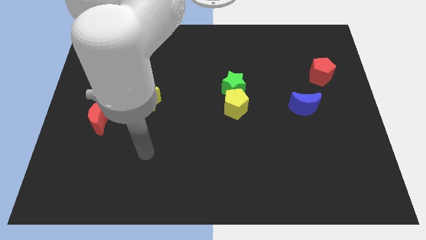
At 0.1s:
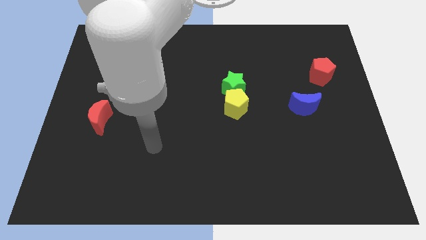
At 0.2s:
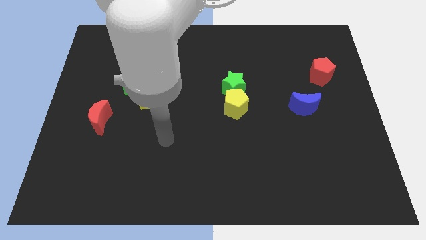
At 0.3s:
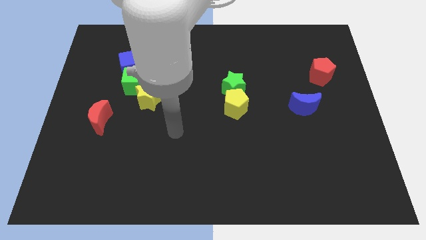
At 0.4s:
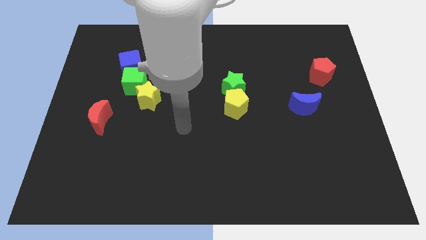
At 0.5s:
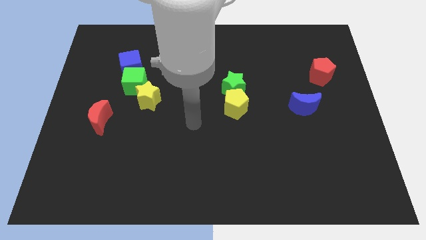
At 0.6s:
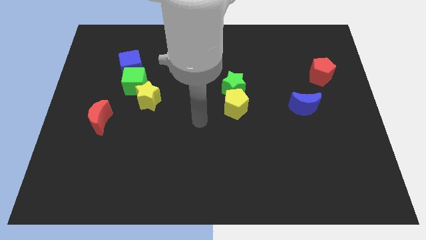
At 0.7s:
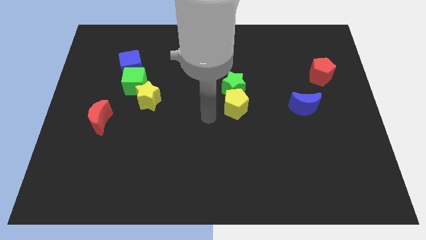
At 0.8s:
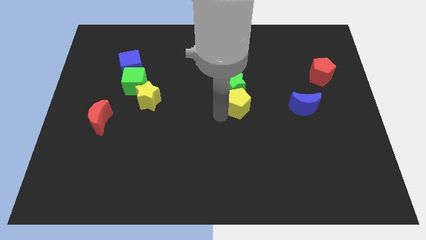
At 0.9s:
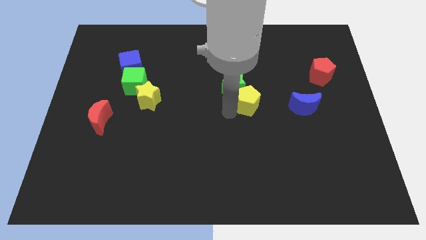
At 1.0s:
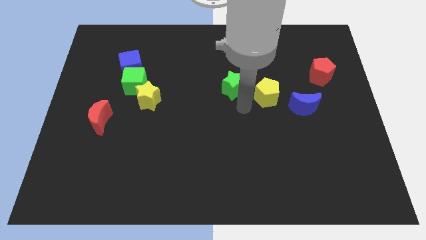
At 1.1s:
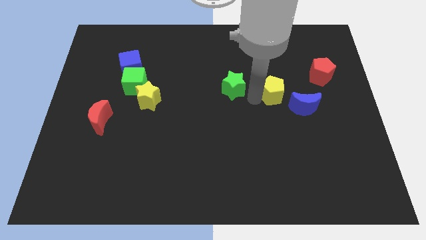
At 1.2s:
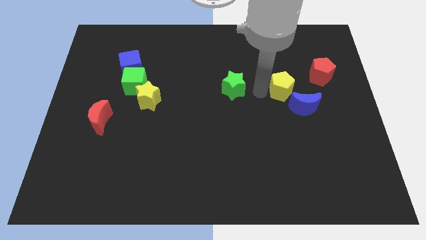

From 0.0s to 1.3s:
move the green star away from the yellow pentagon

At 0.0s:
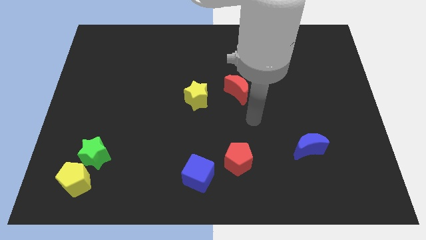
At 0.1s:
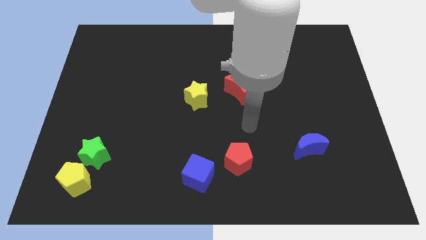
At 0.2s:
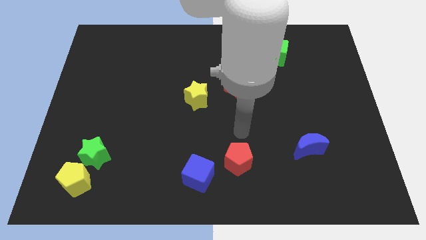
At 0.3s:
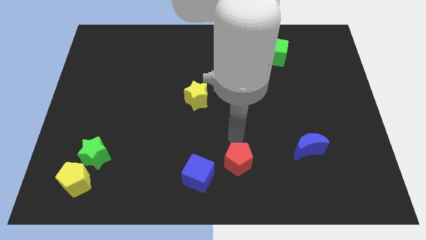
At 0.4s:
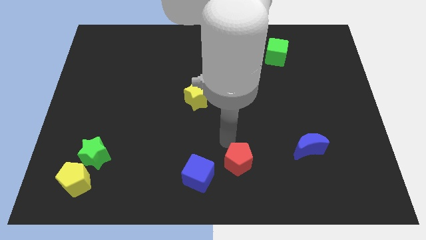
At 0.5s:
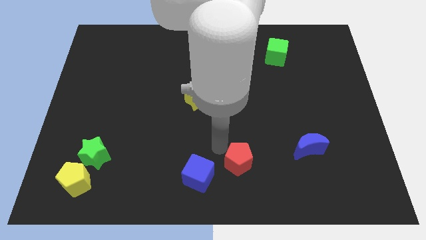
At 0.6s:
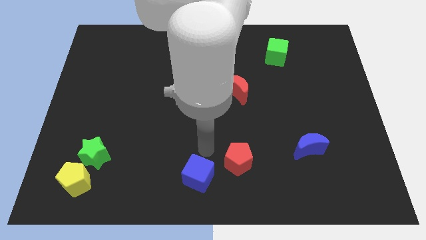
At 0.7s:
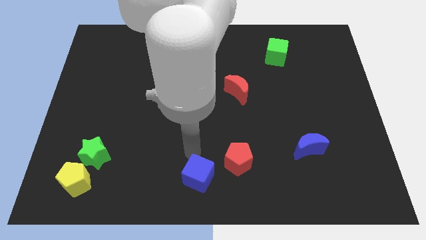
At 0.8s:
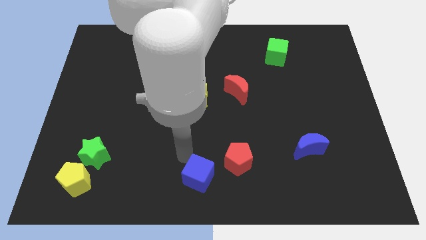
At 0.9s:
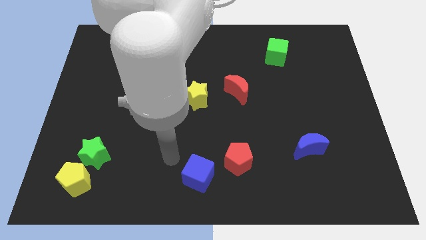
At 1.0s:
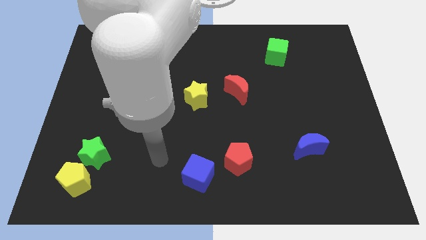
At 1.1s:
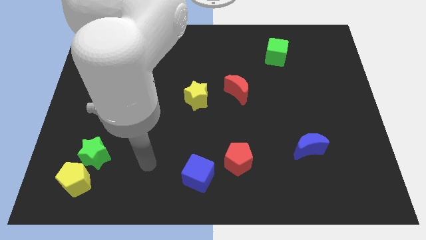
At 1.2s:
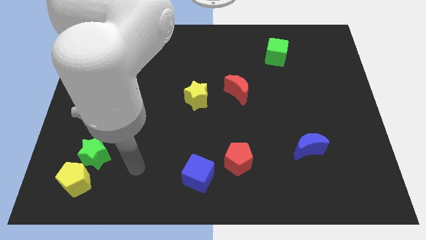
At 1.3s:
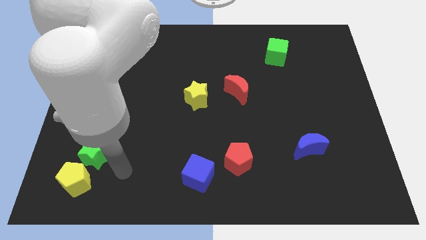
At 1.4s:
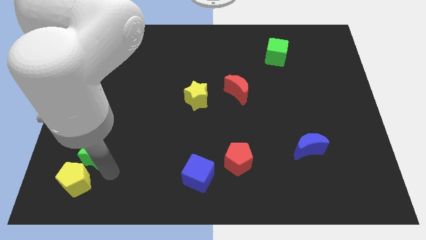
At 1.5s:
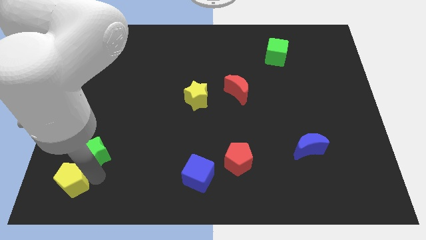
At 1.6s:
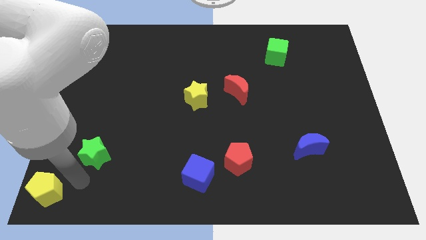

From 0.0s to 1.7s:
separate the green star from the yellow pentagon

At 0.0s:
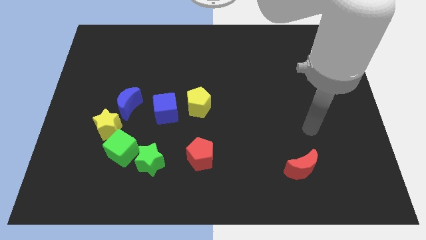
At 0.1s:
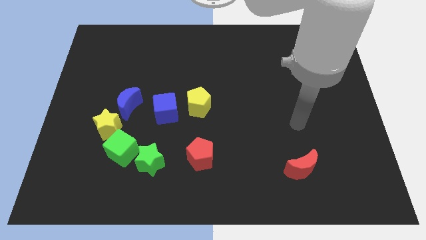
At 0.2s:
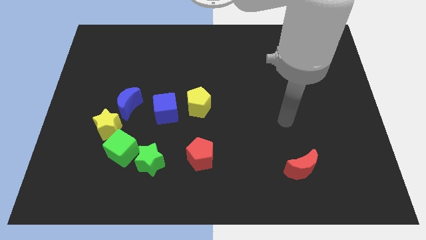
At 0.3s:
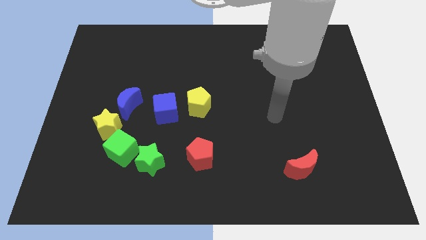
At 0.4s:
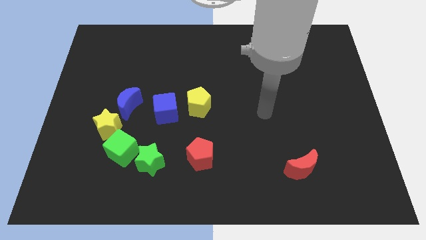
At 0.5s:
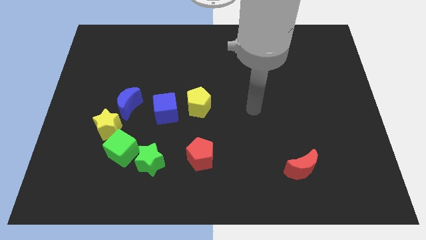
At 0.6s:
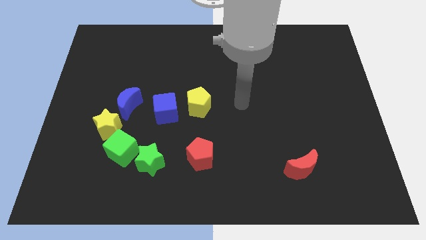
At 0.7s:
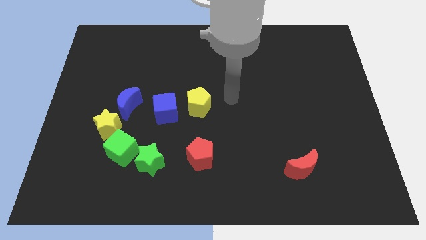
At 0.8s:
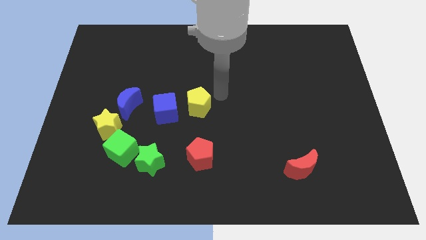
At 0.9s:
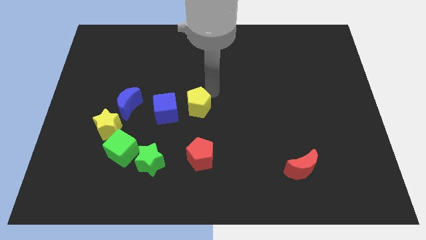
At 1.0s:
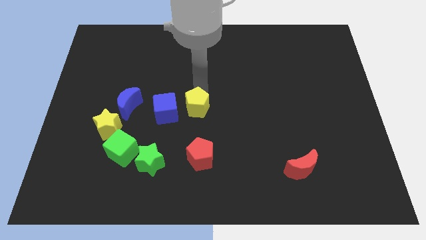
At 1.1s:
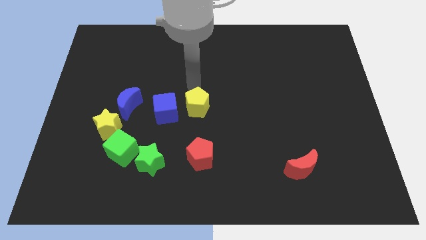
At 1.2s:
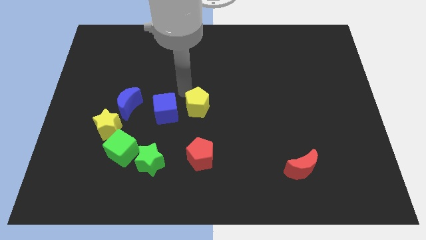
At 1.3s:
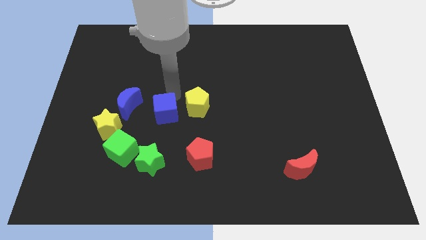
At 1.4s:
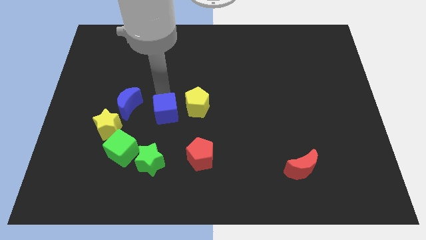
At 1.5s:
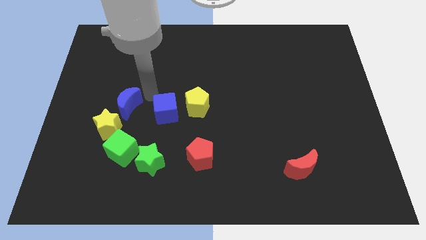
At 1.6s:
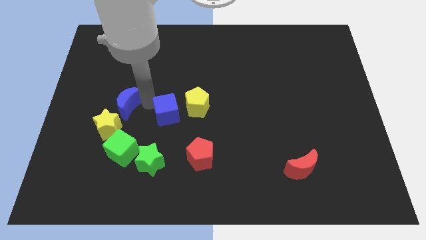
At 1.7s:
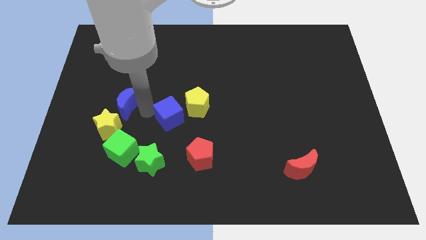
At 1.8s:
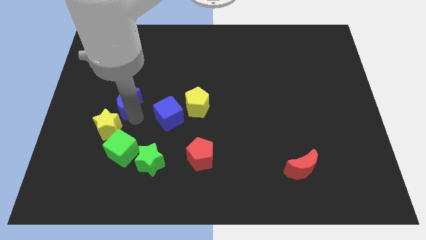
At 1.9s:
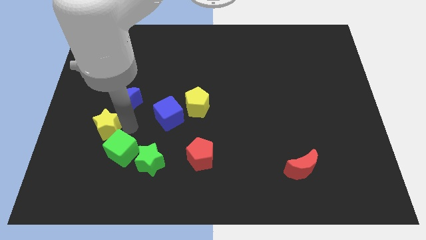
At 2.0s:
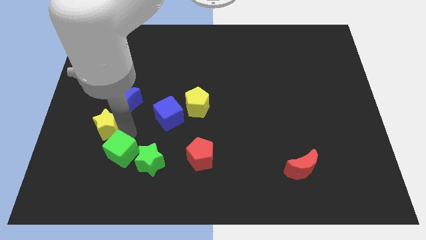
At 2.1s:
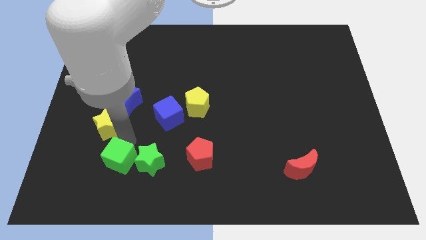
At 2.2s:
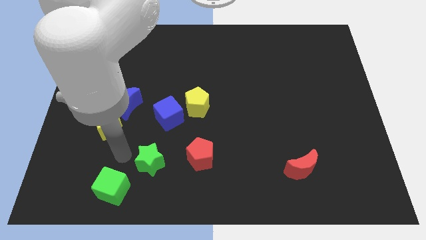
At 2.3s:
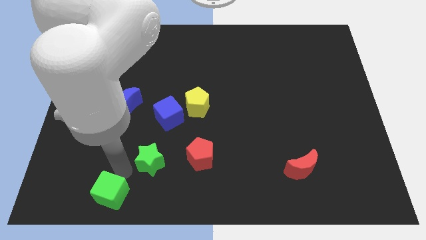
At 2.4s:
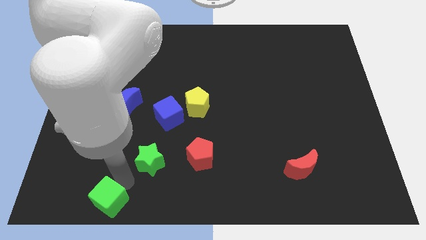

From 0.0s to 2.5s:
move the green star away from the green cube

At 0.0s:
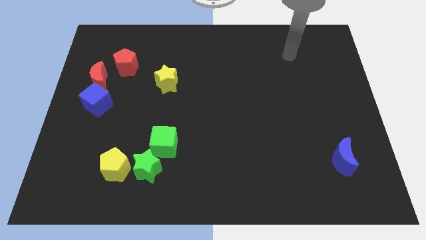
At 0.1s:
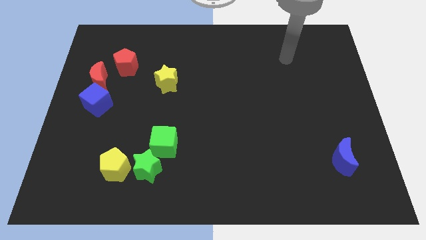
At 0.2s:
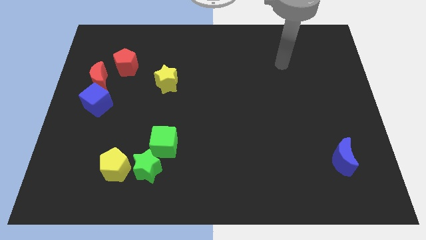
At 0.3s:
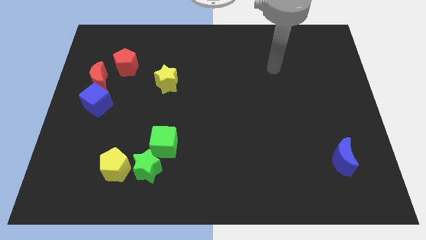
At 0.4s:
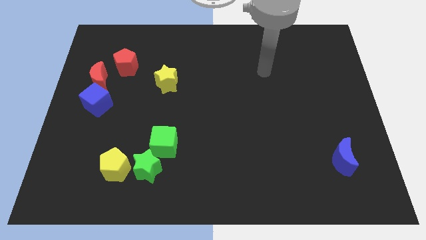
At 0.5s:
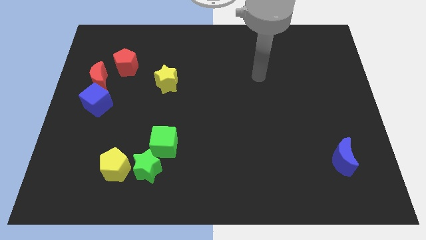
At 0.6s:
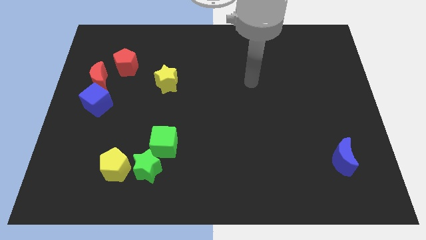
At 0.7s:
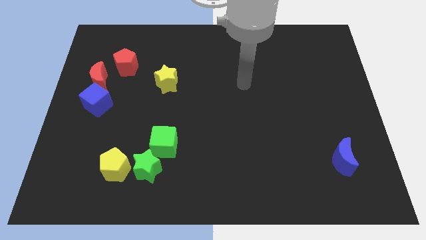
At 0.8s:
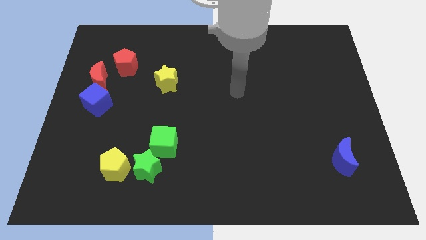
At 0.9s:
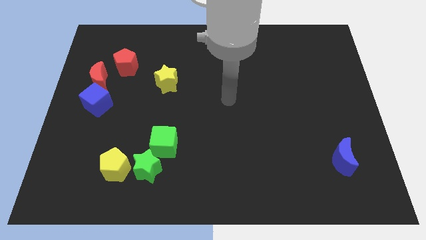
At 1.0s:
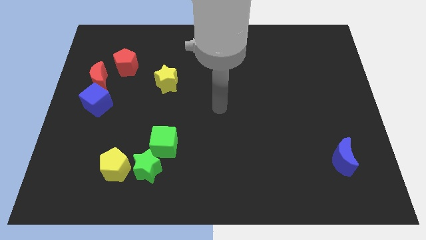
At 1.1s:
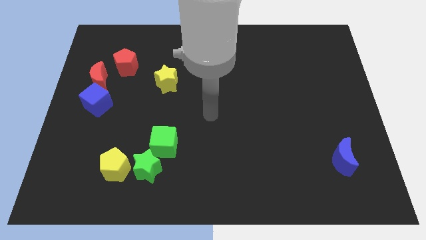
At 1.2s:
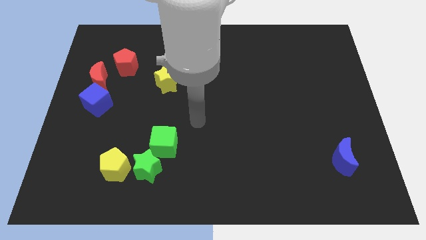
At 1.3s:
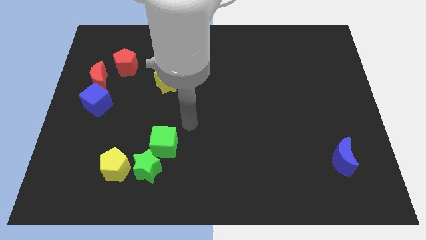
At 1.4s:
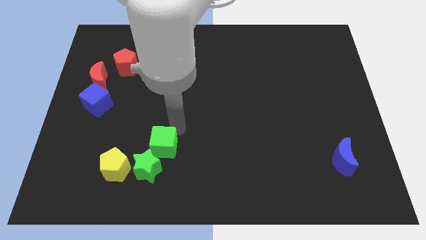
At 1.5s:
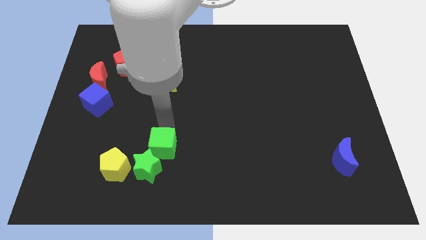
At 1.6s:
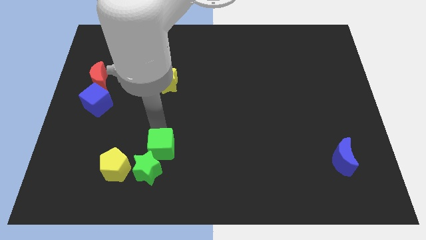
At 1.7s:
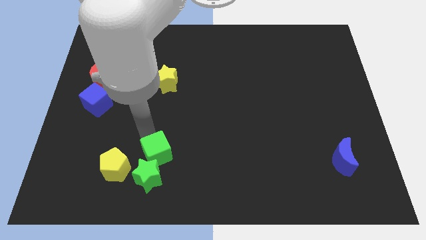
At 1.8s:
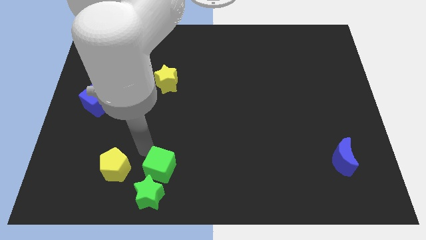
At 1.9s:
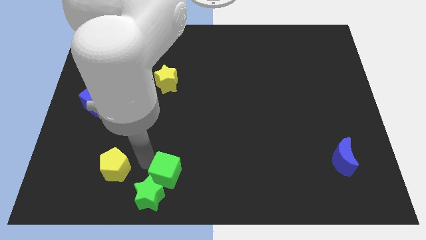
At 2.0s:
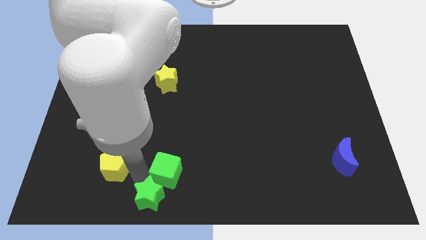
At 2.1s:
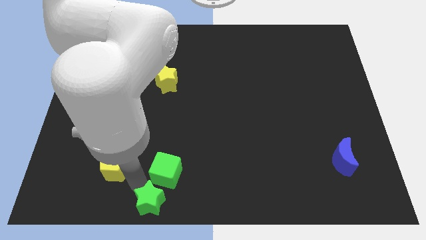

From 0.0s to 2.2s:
move the yellow pentagon away from the green star

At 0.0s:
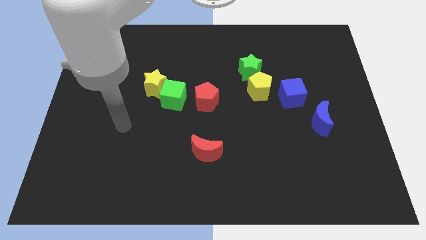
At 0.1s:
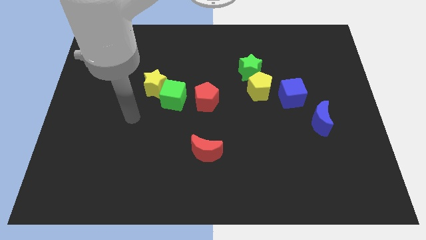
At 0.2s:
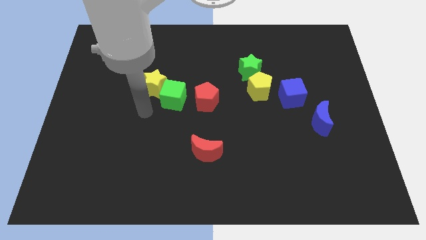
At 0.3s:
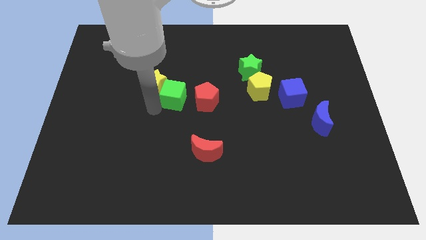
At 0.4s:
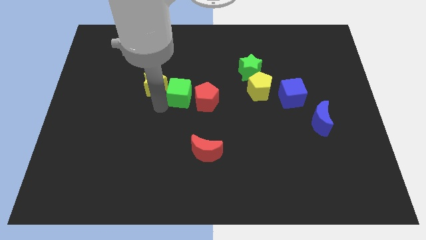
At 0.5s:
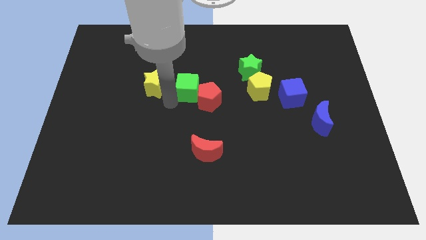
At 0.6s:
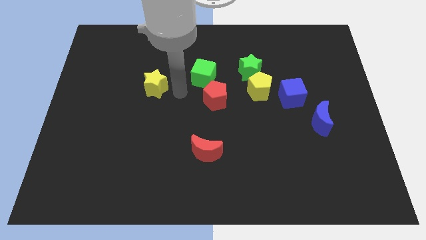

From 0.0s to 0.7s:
separate the yellow star from the green cube

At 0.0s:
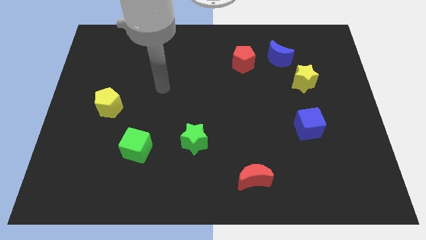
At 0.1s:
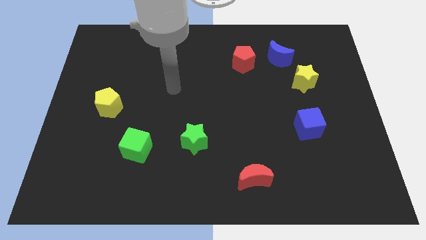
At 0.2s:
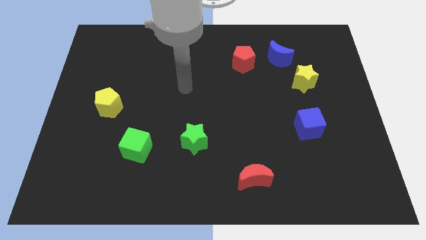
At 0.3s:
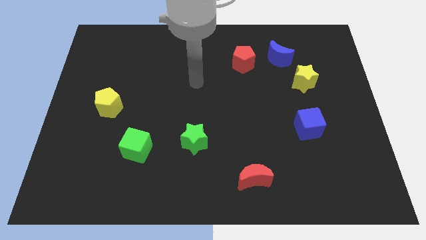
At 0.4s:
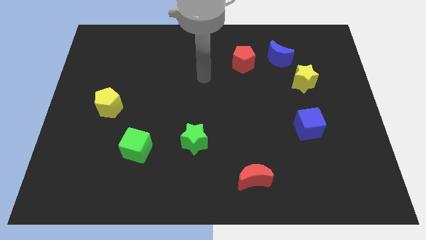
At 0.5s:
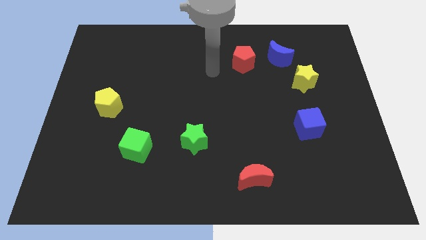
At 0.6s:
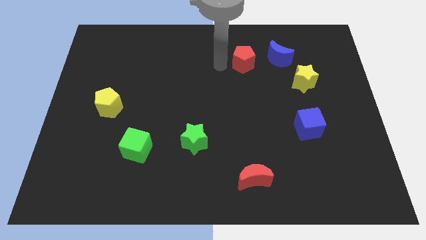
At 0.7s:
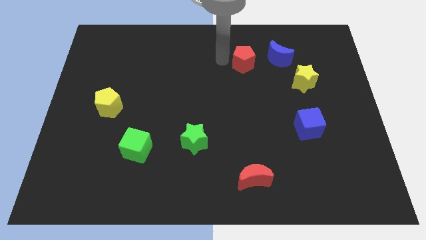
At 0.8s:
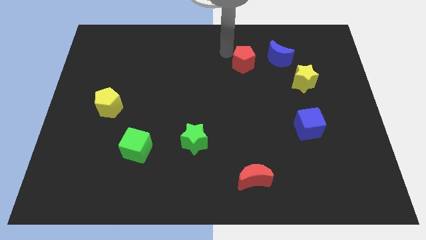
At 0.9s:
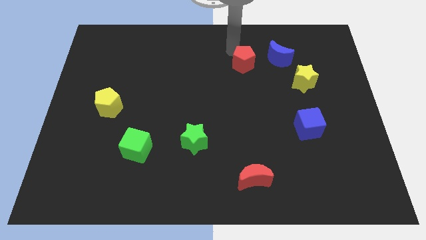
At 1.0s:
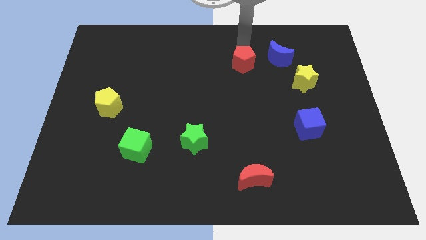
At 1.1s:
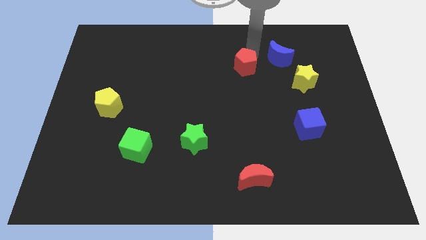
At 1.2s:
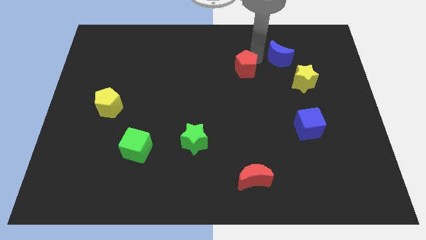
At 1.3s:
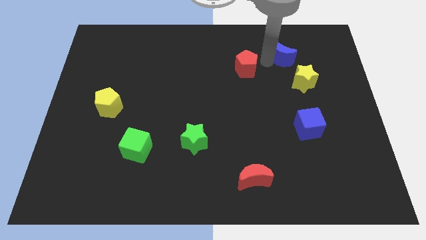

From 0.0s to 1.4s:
separate the red pentagon from the blue moon
